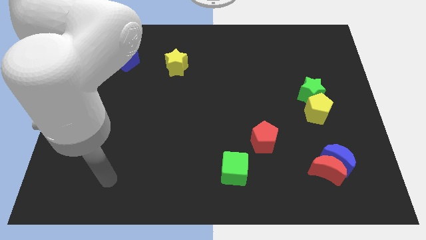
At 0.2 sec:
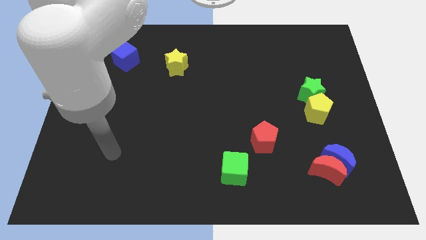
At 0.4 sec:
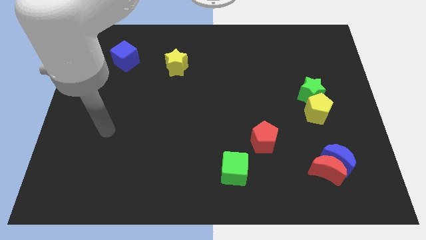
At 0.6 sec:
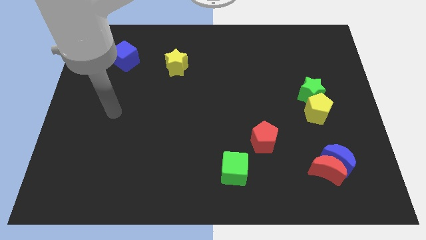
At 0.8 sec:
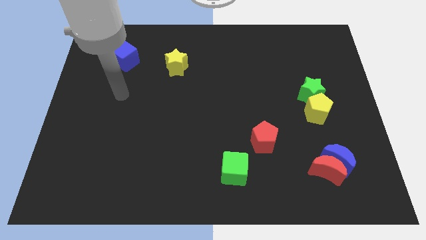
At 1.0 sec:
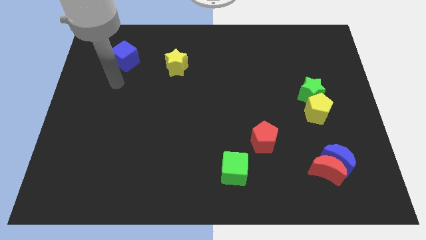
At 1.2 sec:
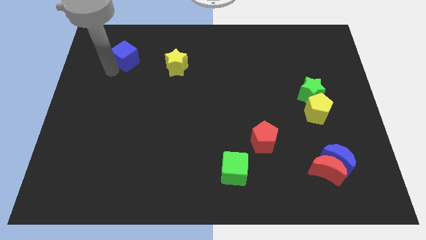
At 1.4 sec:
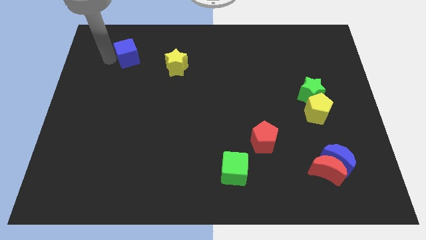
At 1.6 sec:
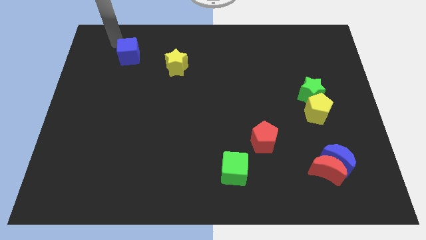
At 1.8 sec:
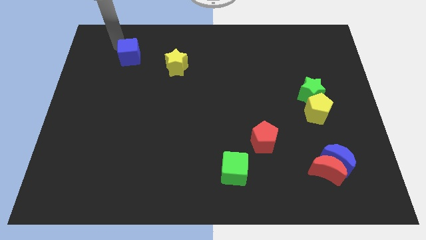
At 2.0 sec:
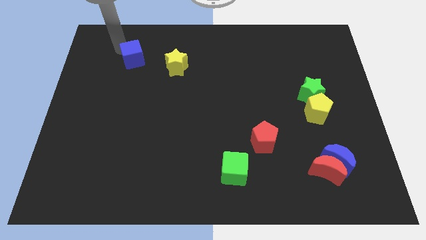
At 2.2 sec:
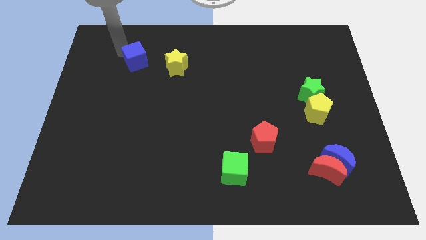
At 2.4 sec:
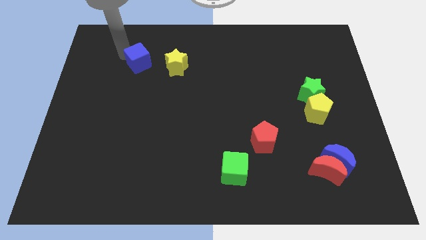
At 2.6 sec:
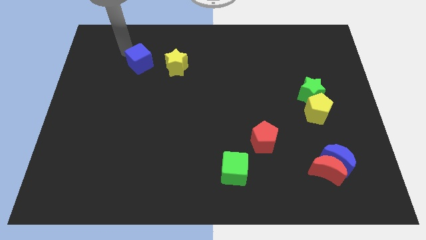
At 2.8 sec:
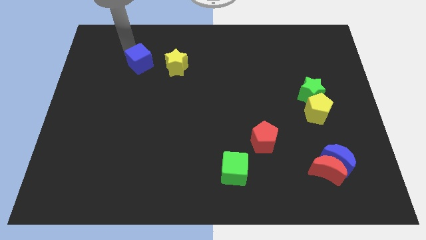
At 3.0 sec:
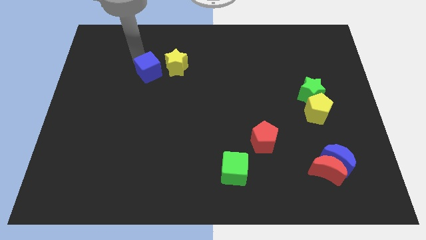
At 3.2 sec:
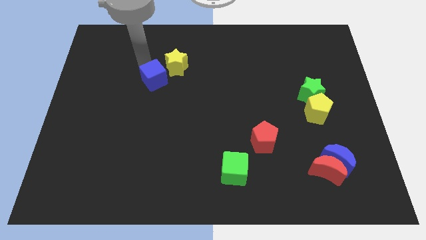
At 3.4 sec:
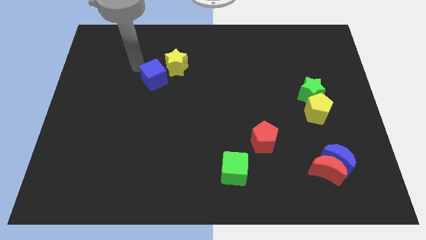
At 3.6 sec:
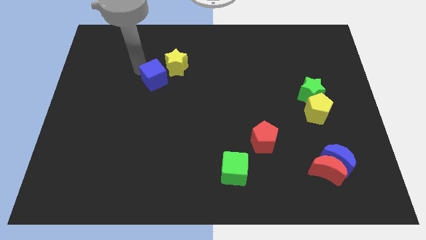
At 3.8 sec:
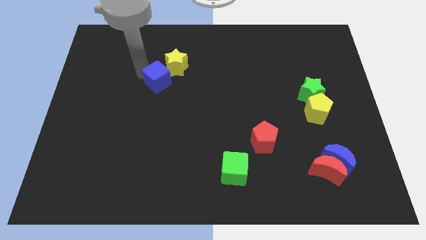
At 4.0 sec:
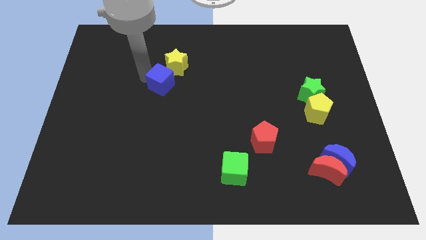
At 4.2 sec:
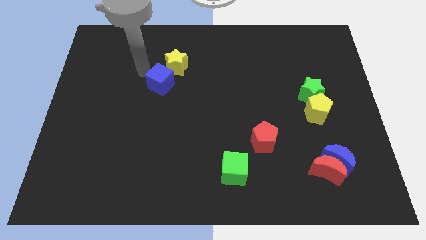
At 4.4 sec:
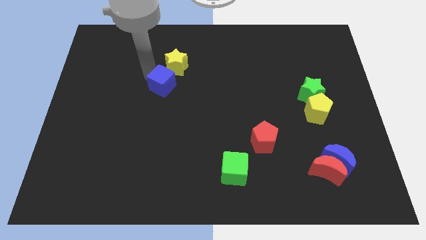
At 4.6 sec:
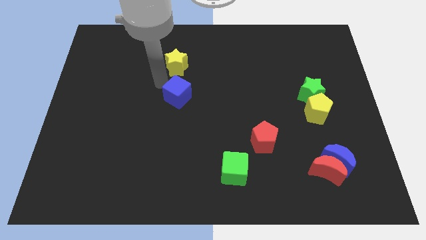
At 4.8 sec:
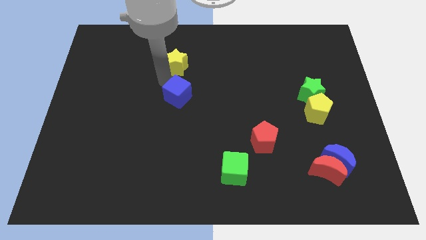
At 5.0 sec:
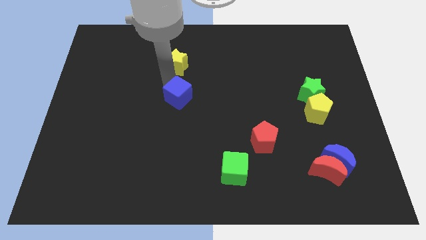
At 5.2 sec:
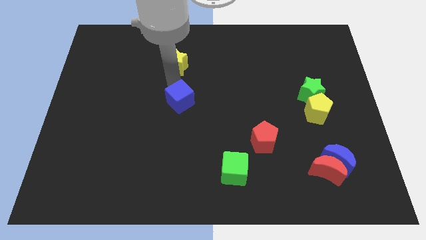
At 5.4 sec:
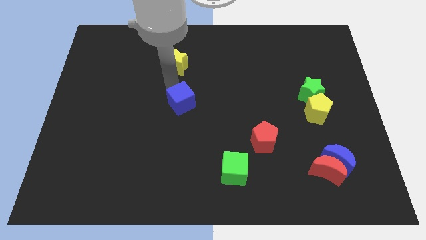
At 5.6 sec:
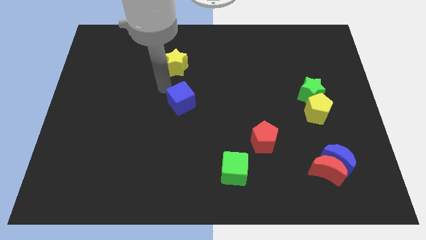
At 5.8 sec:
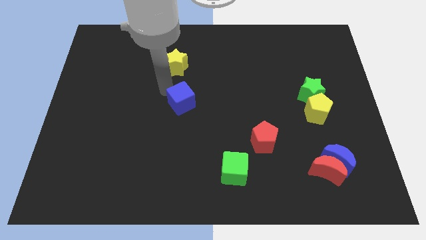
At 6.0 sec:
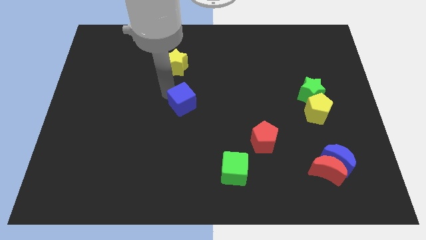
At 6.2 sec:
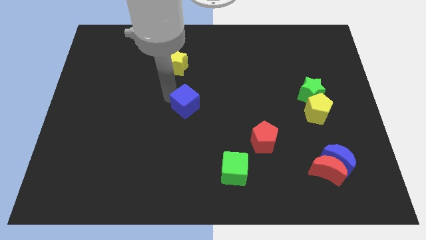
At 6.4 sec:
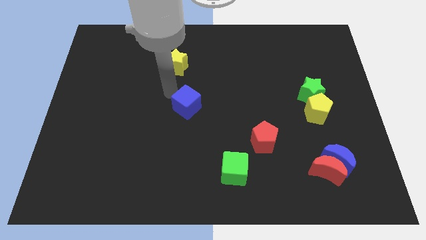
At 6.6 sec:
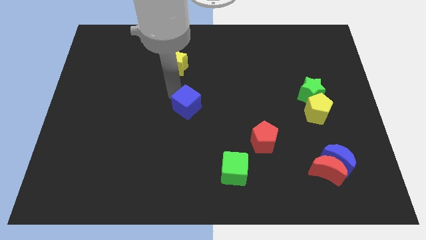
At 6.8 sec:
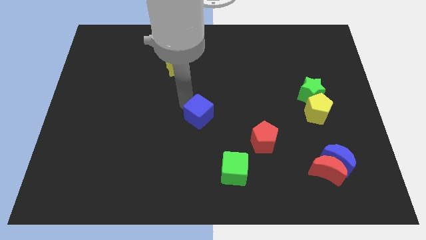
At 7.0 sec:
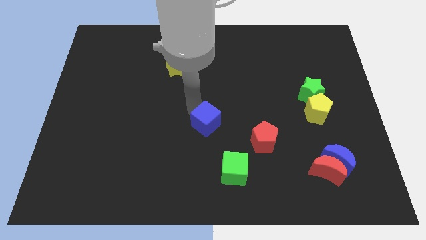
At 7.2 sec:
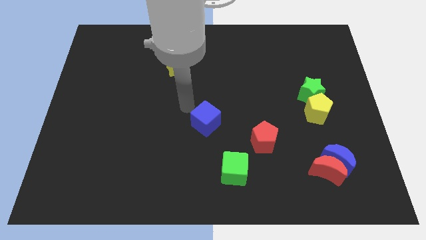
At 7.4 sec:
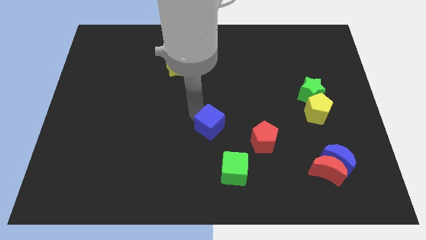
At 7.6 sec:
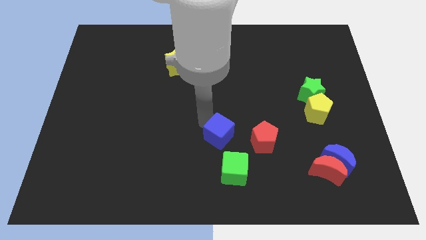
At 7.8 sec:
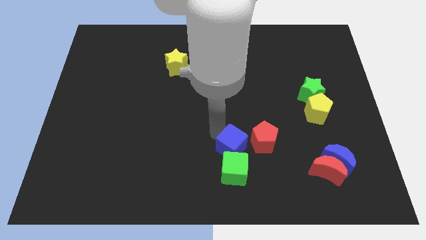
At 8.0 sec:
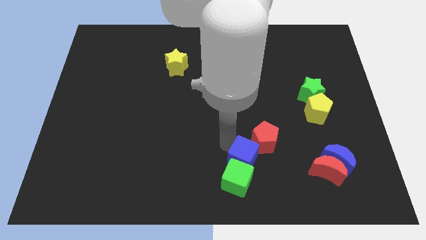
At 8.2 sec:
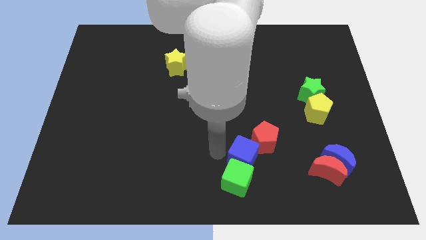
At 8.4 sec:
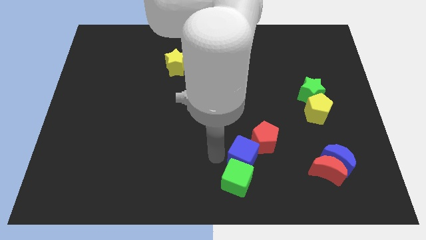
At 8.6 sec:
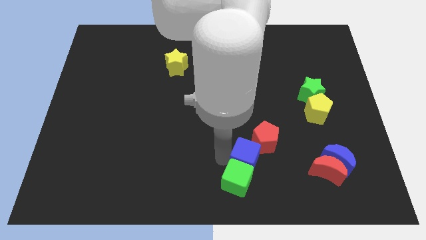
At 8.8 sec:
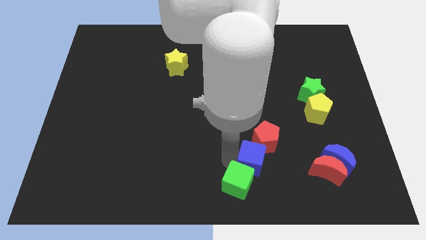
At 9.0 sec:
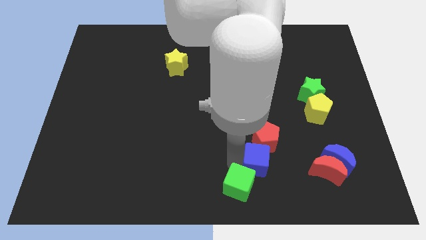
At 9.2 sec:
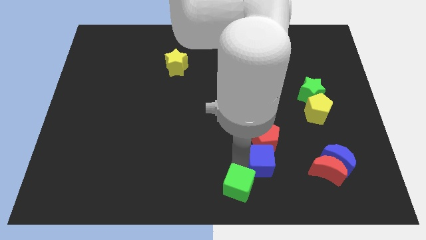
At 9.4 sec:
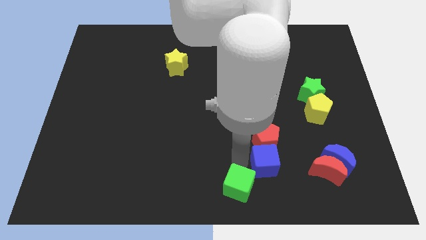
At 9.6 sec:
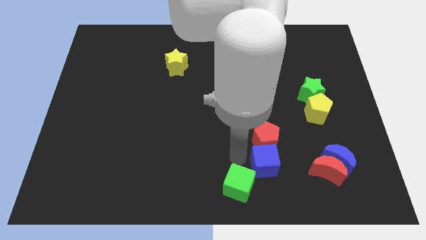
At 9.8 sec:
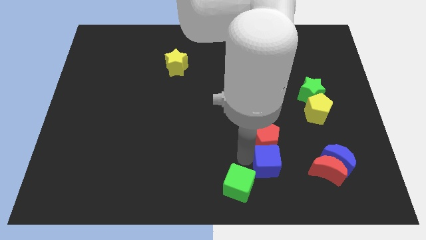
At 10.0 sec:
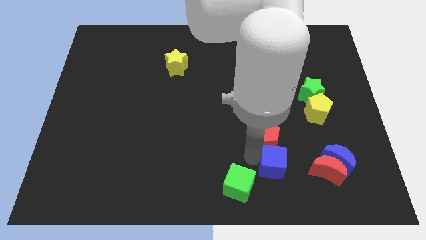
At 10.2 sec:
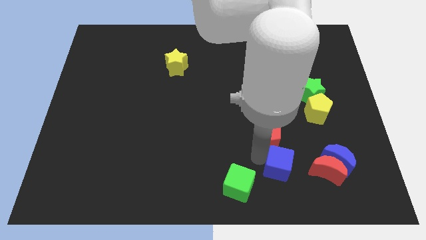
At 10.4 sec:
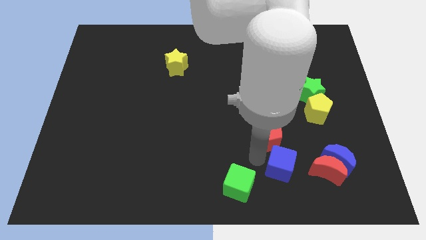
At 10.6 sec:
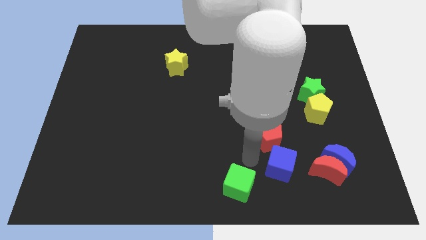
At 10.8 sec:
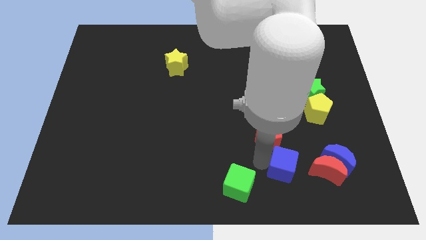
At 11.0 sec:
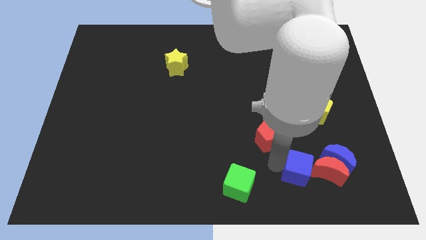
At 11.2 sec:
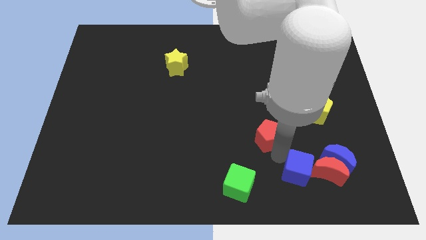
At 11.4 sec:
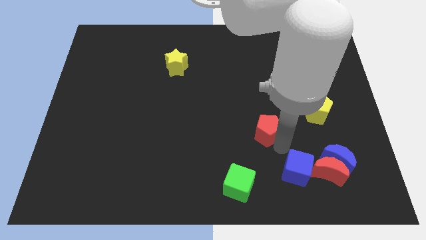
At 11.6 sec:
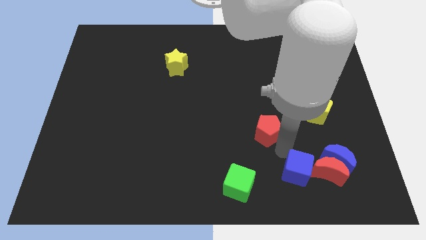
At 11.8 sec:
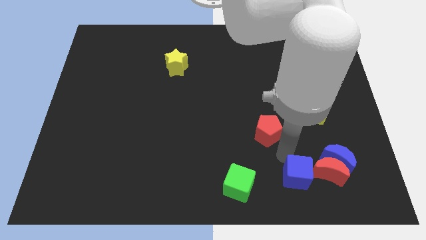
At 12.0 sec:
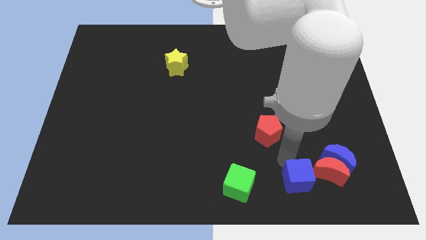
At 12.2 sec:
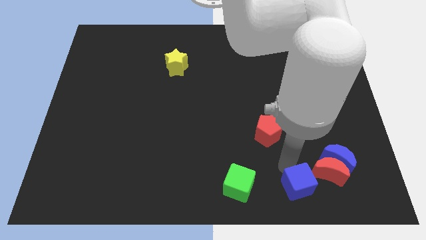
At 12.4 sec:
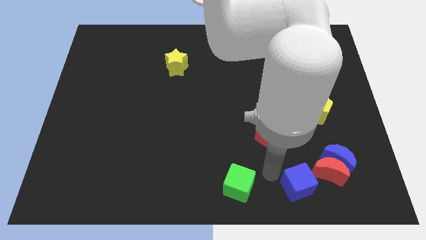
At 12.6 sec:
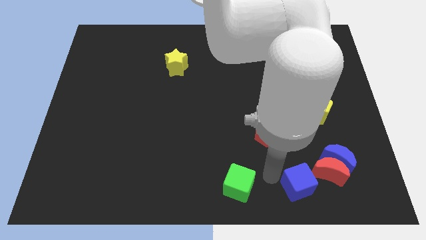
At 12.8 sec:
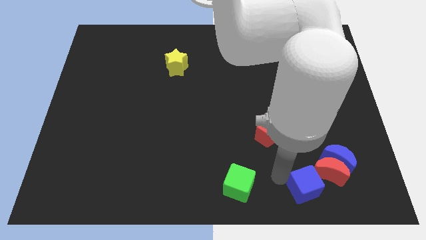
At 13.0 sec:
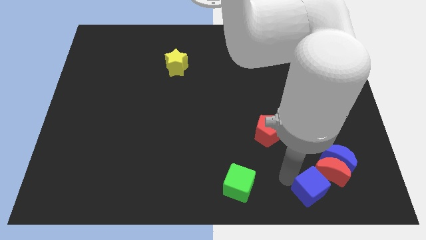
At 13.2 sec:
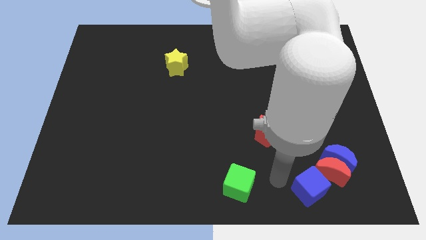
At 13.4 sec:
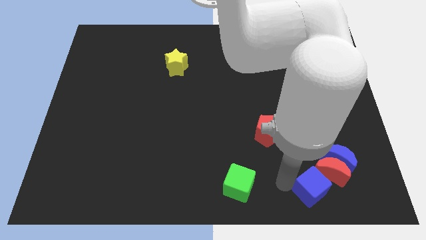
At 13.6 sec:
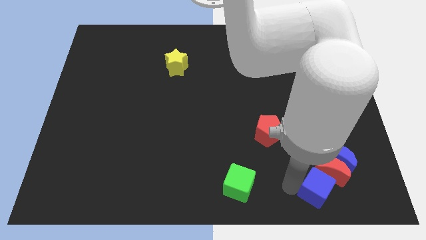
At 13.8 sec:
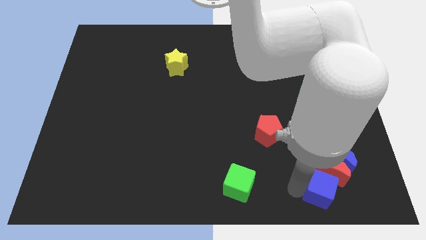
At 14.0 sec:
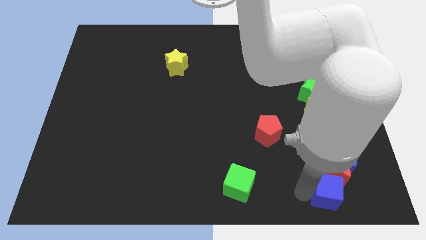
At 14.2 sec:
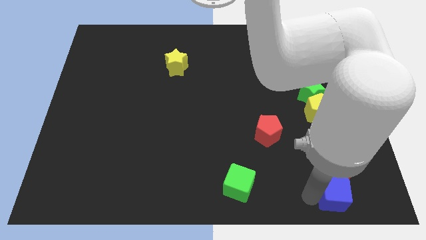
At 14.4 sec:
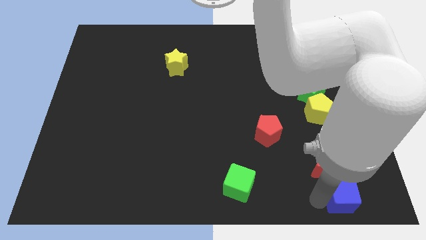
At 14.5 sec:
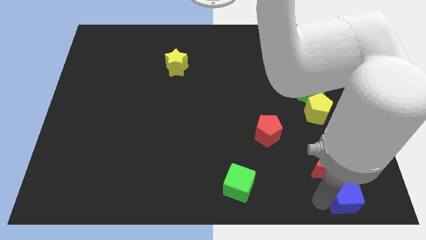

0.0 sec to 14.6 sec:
push the blue cube to the bottom right corner
